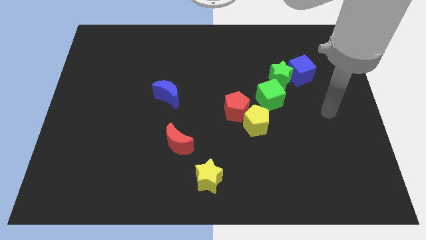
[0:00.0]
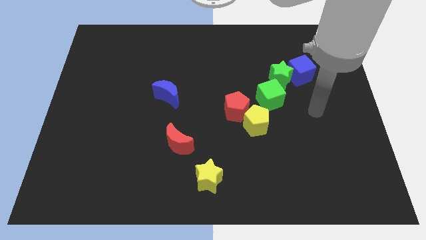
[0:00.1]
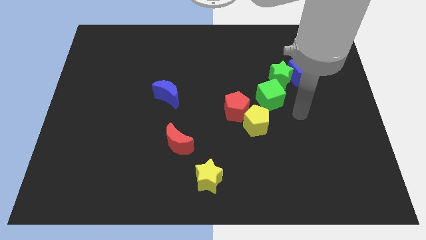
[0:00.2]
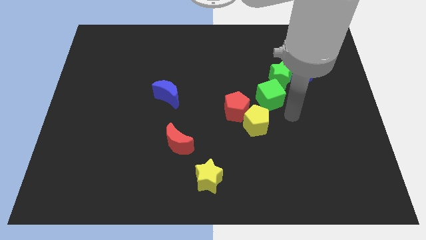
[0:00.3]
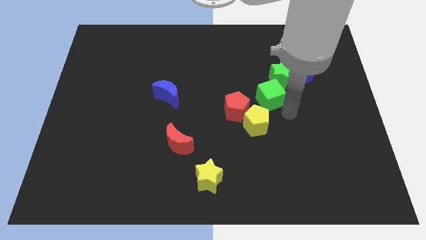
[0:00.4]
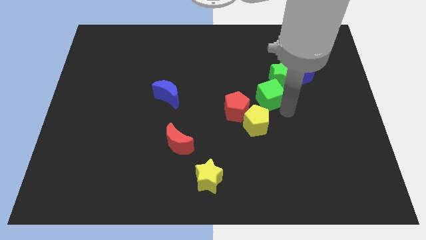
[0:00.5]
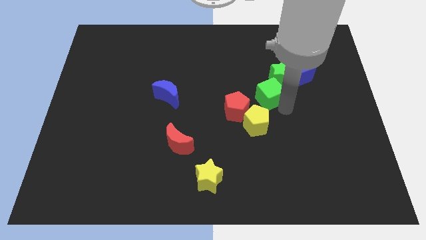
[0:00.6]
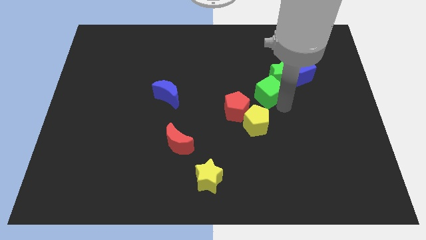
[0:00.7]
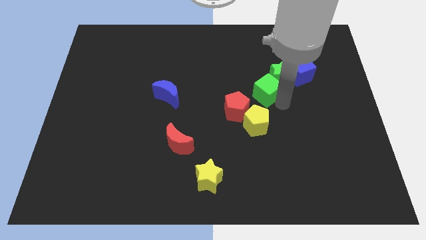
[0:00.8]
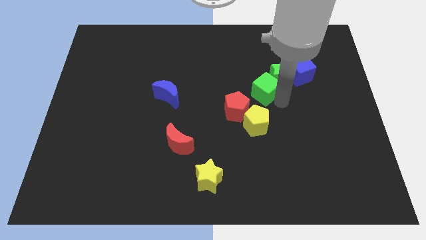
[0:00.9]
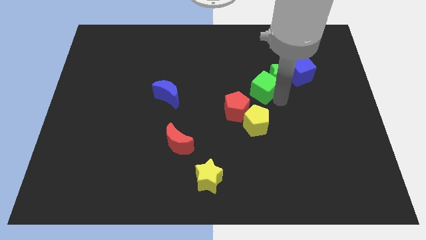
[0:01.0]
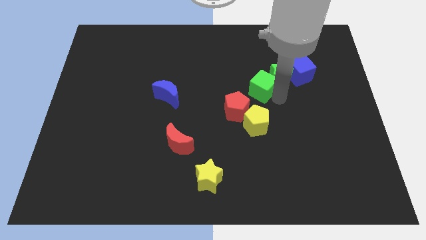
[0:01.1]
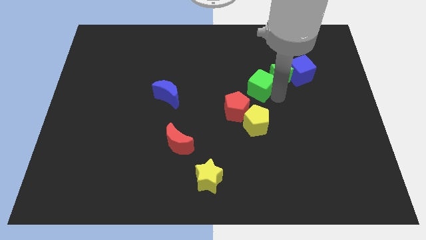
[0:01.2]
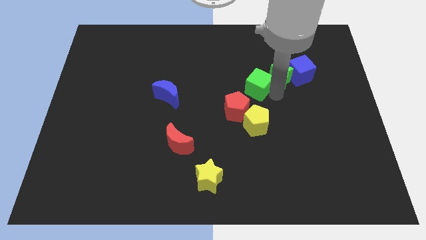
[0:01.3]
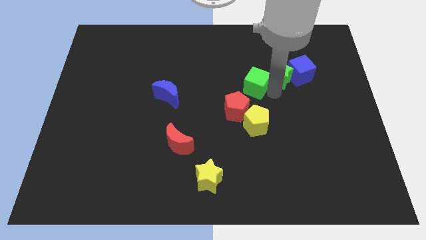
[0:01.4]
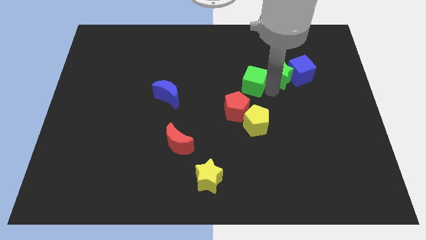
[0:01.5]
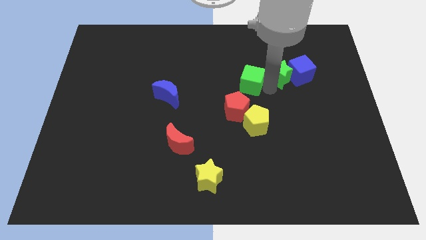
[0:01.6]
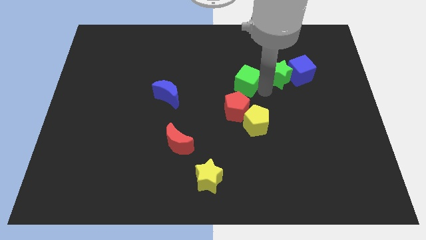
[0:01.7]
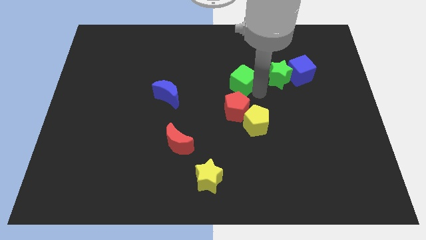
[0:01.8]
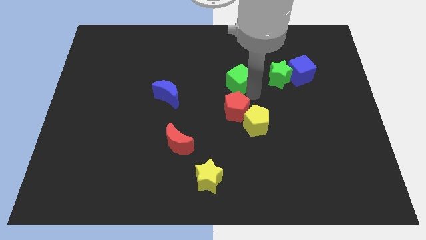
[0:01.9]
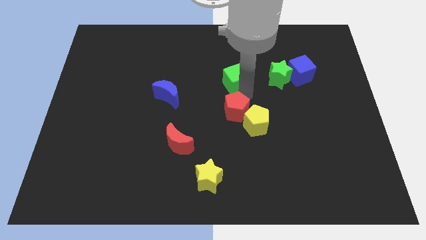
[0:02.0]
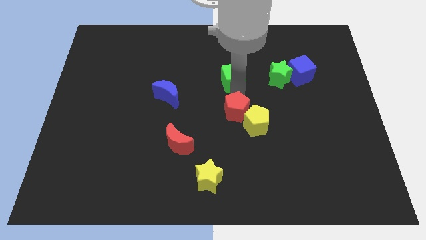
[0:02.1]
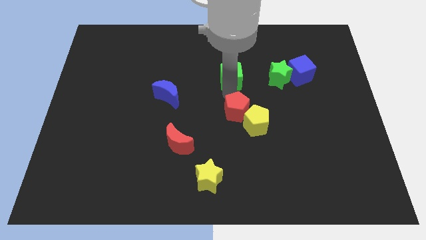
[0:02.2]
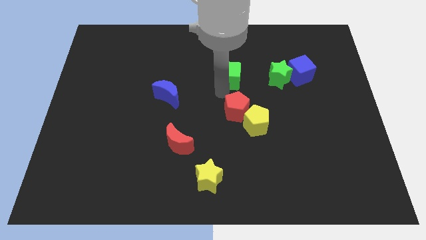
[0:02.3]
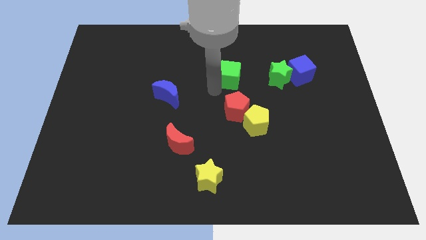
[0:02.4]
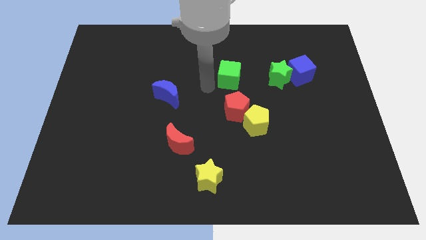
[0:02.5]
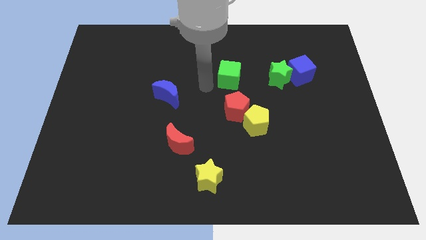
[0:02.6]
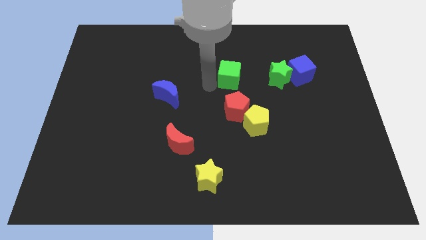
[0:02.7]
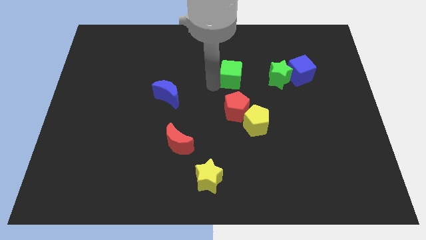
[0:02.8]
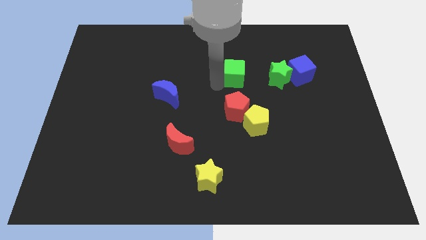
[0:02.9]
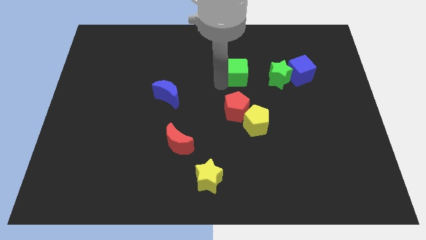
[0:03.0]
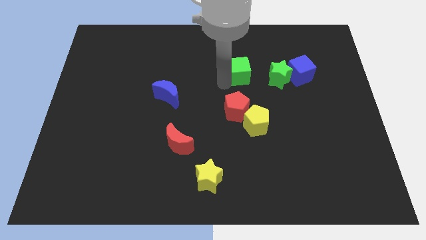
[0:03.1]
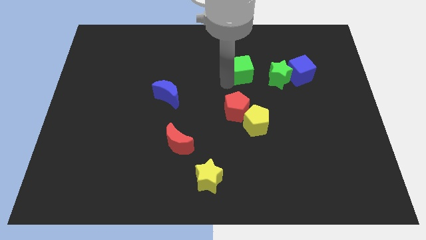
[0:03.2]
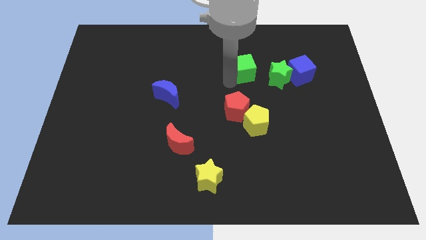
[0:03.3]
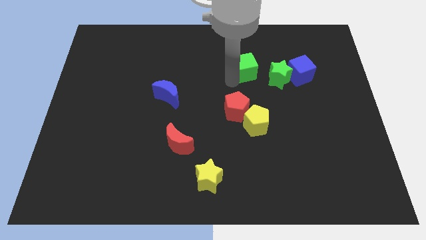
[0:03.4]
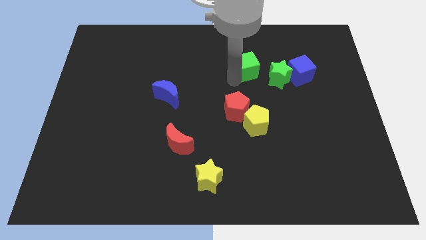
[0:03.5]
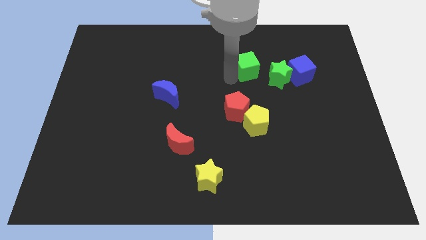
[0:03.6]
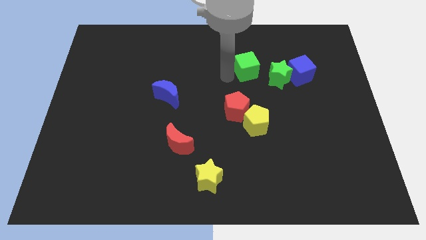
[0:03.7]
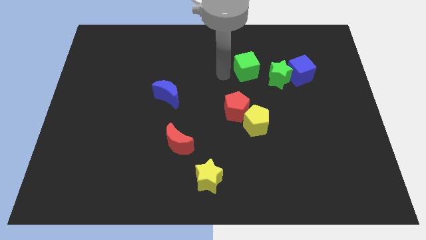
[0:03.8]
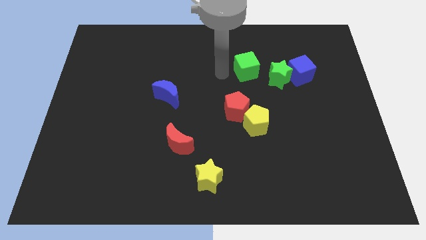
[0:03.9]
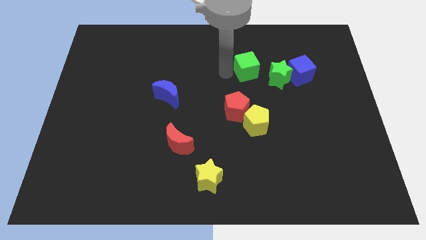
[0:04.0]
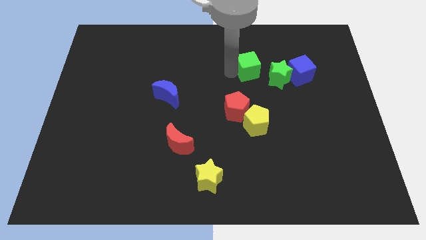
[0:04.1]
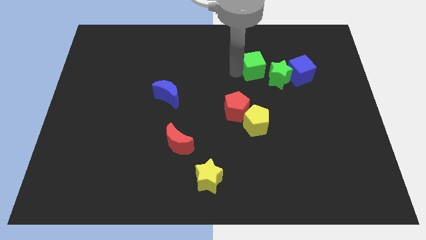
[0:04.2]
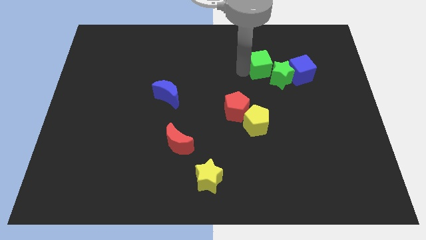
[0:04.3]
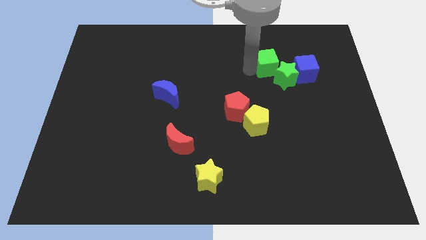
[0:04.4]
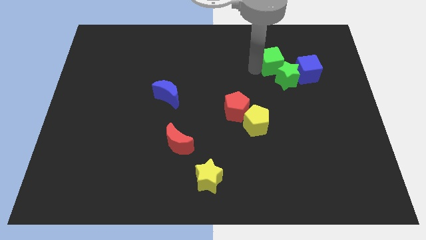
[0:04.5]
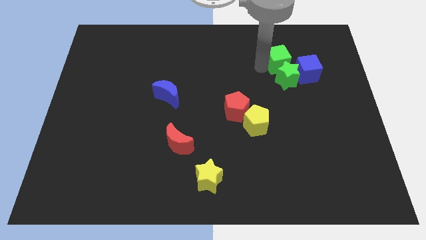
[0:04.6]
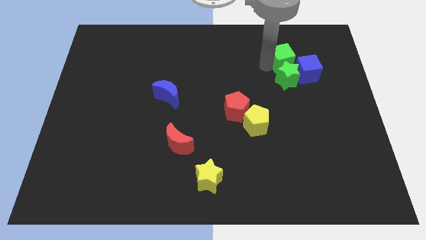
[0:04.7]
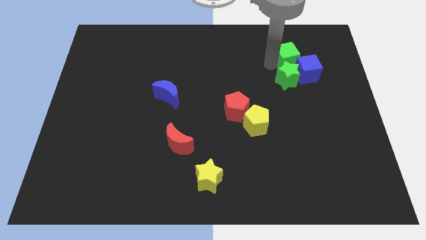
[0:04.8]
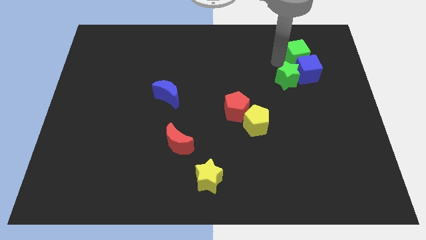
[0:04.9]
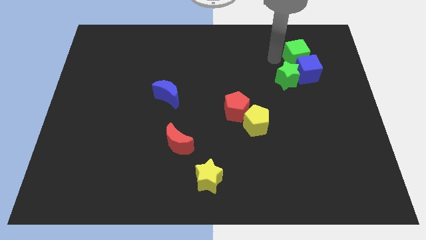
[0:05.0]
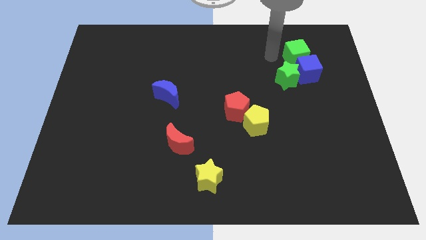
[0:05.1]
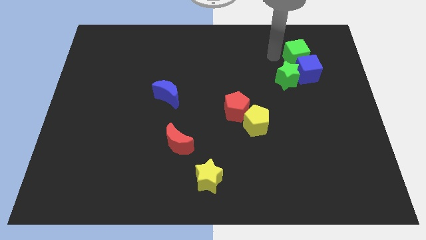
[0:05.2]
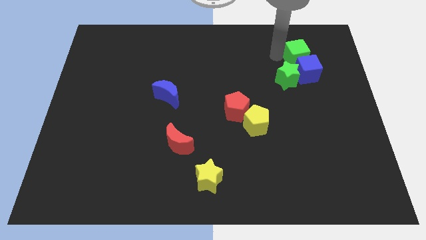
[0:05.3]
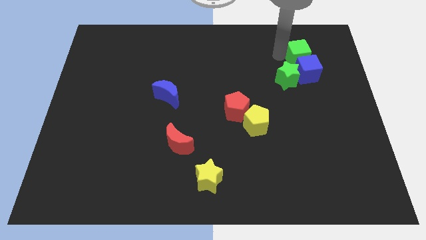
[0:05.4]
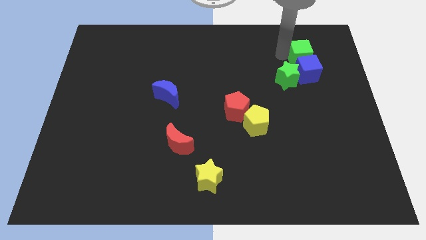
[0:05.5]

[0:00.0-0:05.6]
slide the green cube to the top right side of the blue cube

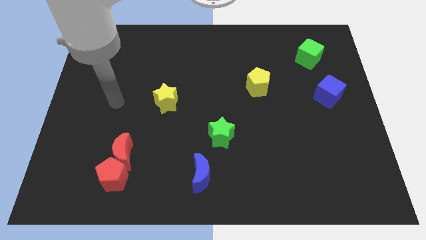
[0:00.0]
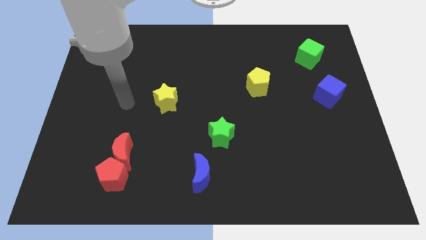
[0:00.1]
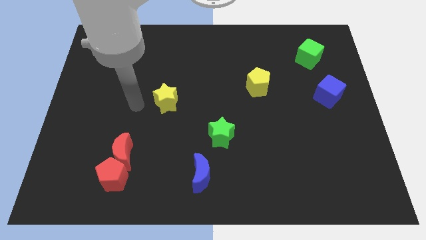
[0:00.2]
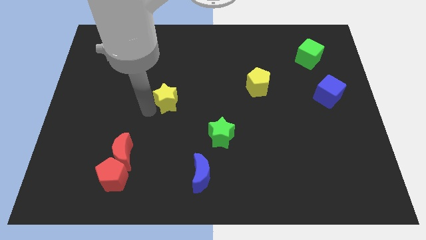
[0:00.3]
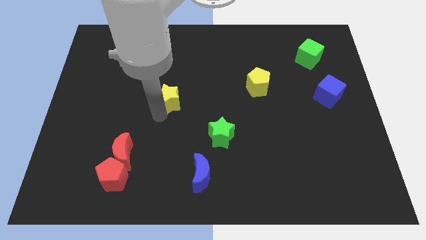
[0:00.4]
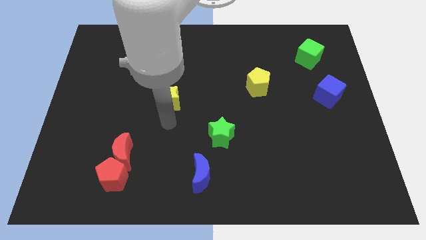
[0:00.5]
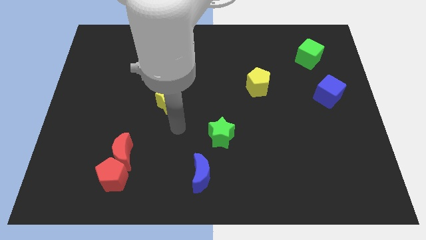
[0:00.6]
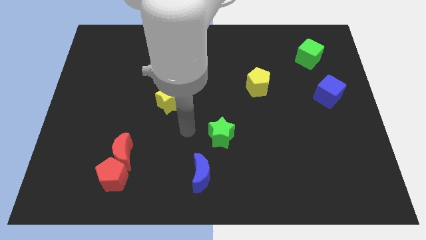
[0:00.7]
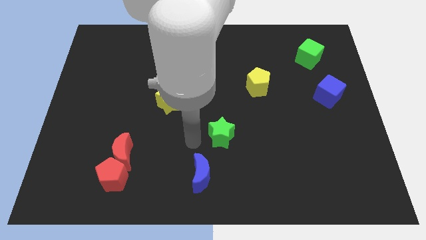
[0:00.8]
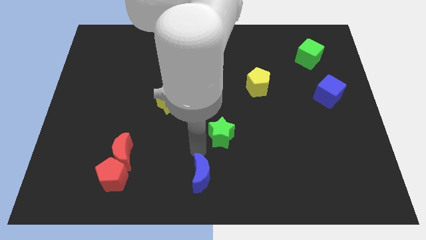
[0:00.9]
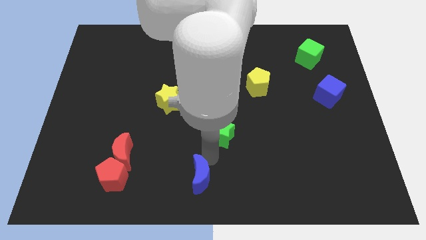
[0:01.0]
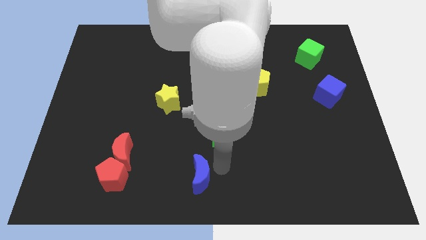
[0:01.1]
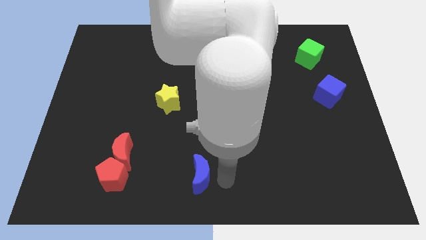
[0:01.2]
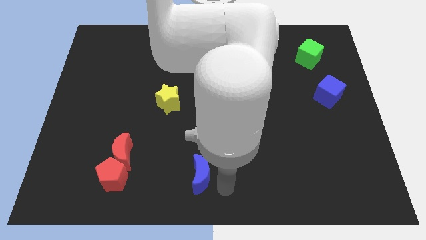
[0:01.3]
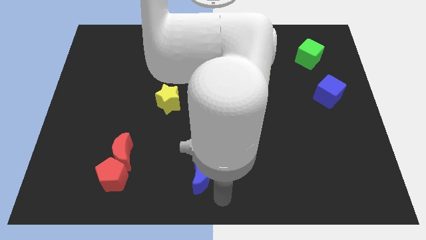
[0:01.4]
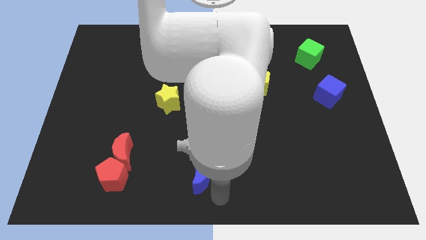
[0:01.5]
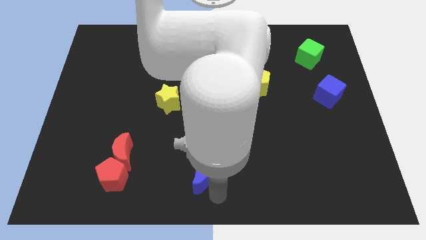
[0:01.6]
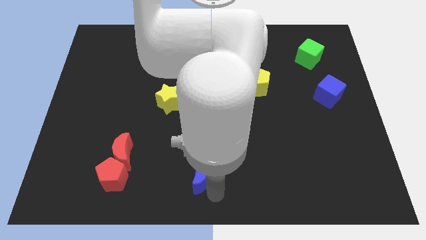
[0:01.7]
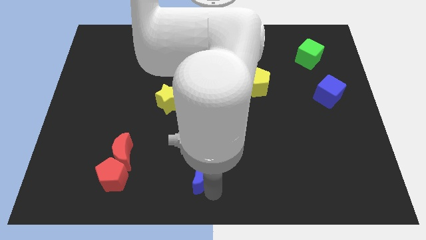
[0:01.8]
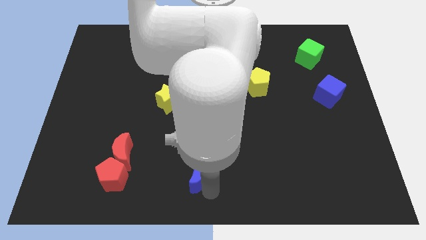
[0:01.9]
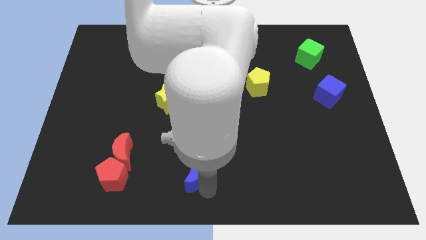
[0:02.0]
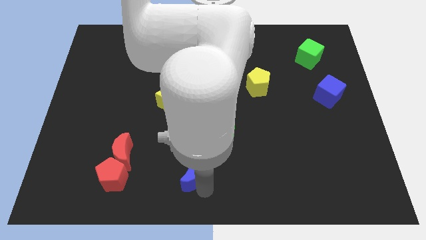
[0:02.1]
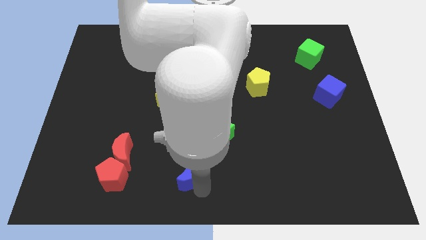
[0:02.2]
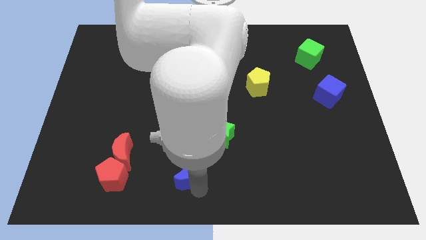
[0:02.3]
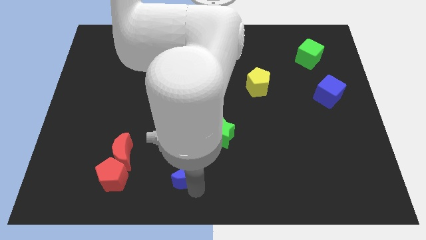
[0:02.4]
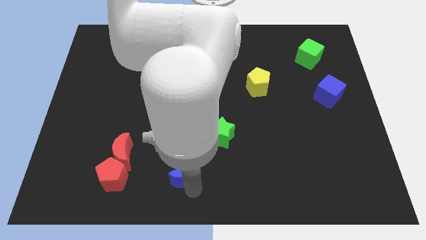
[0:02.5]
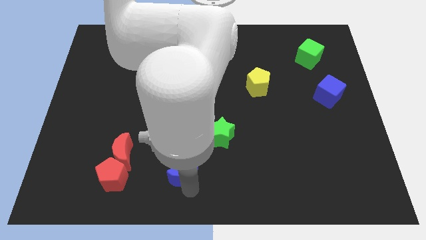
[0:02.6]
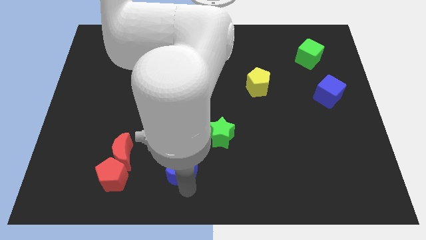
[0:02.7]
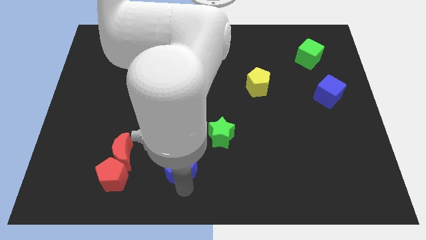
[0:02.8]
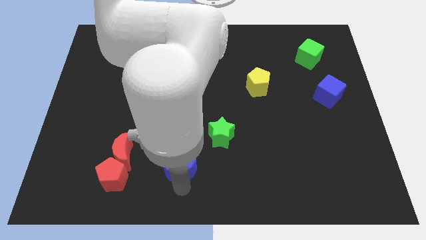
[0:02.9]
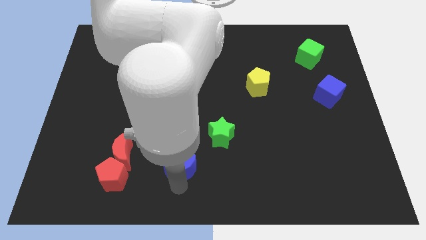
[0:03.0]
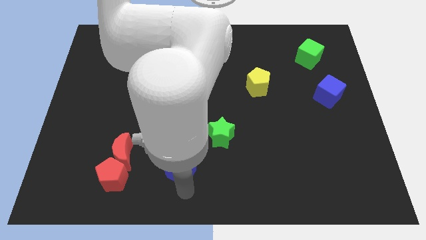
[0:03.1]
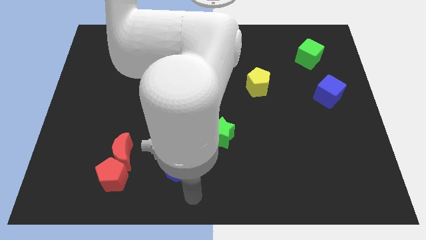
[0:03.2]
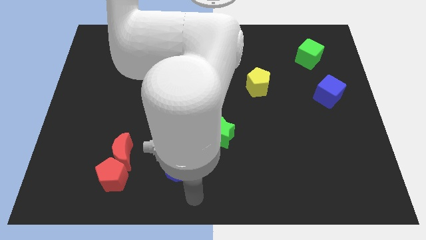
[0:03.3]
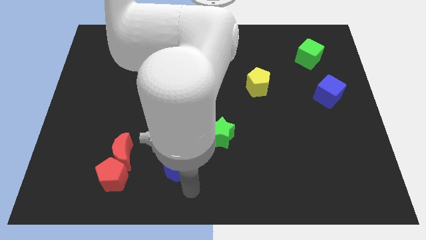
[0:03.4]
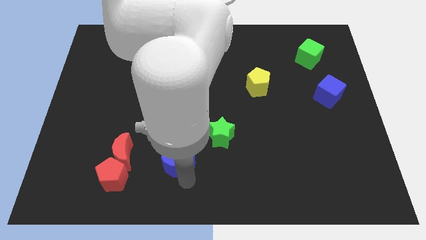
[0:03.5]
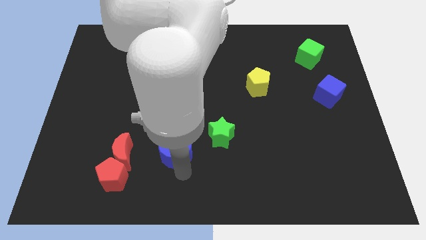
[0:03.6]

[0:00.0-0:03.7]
put the blue moon to the bottom side of the yellow star
